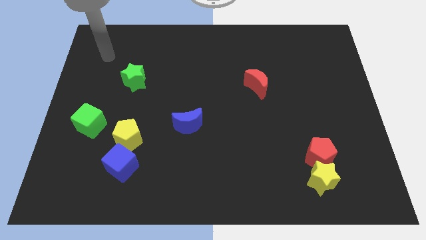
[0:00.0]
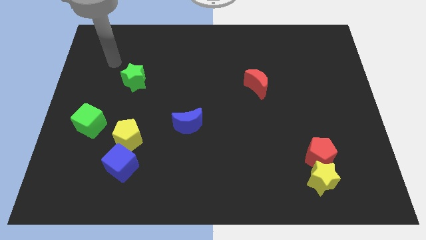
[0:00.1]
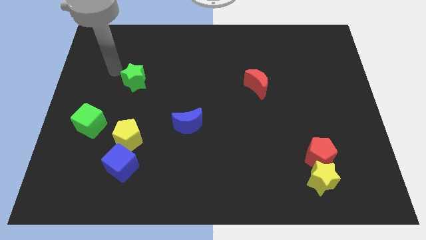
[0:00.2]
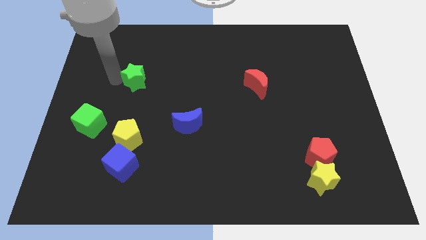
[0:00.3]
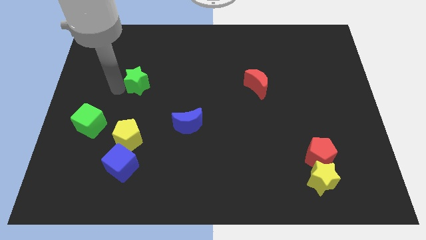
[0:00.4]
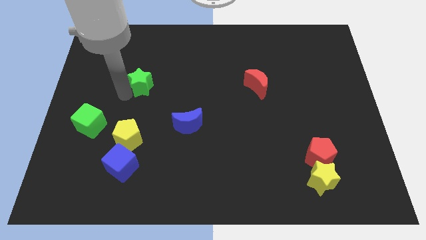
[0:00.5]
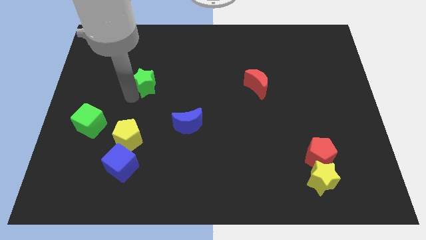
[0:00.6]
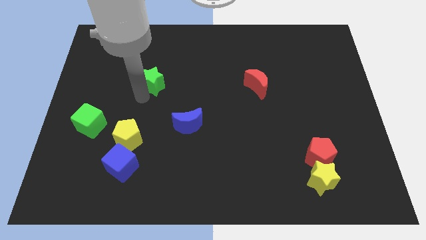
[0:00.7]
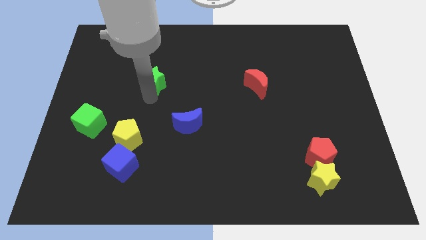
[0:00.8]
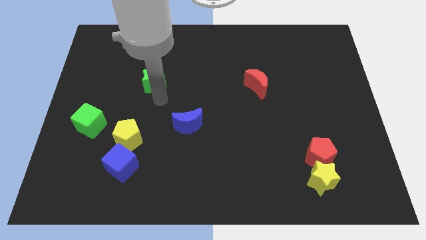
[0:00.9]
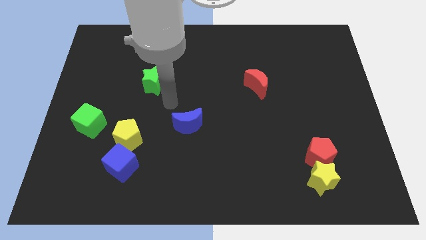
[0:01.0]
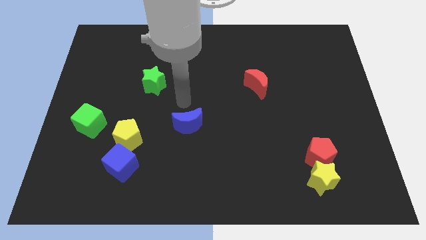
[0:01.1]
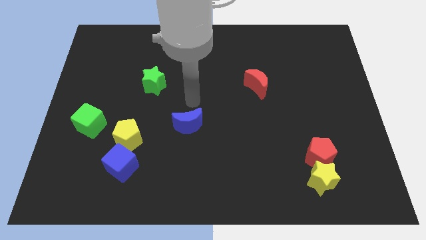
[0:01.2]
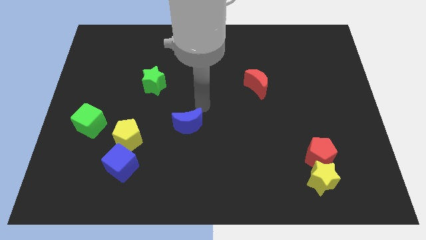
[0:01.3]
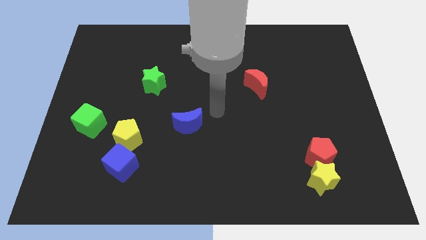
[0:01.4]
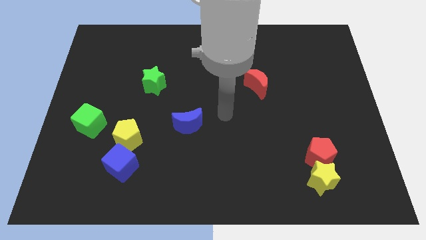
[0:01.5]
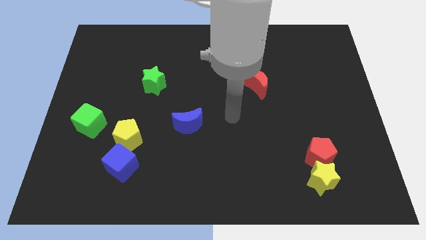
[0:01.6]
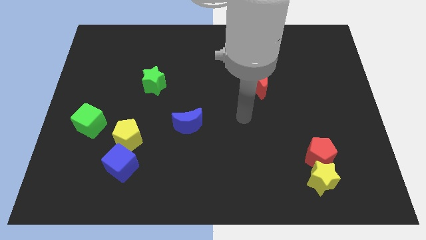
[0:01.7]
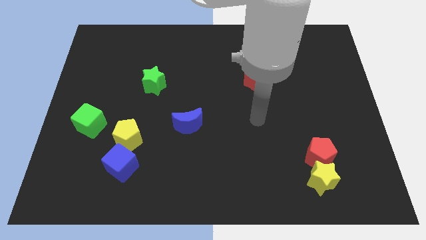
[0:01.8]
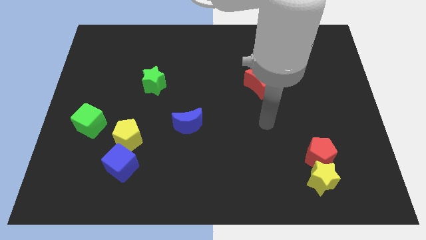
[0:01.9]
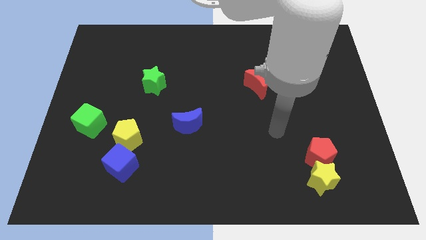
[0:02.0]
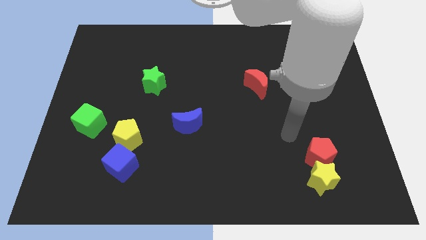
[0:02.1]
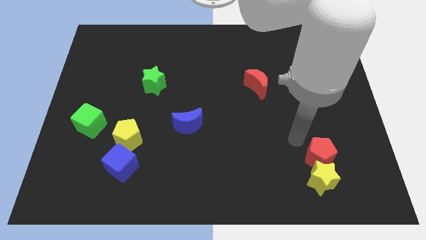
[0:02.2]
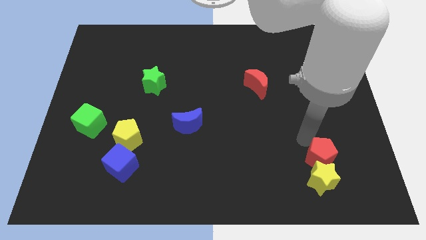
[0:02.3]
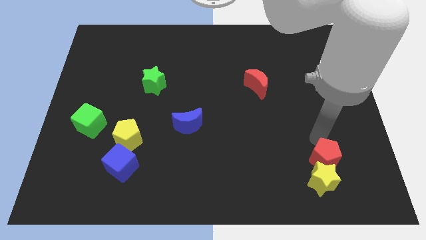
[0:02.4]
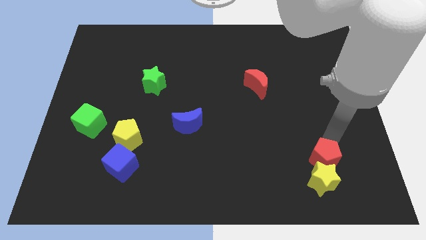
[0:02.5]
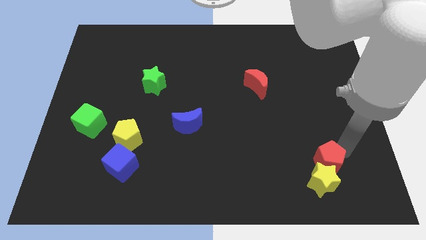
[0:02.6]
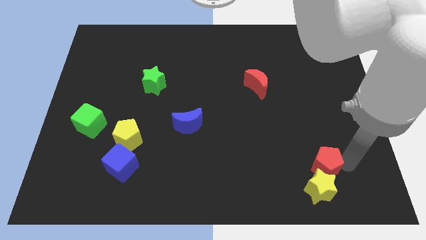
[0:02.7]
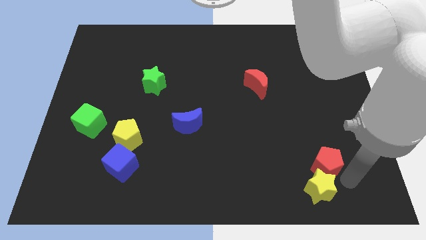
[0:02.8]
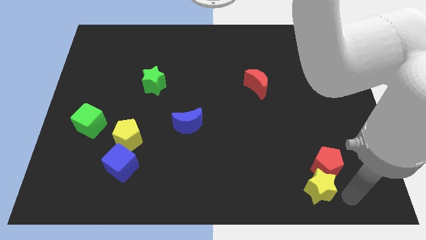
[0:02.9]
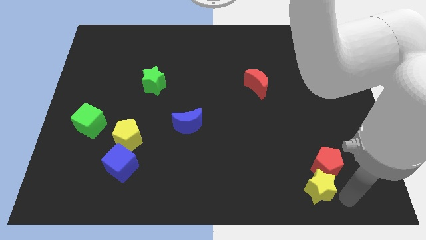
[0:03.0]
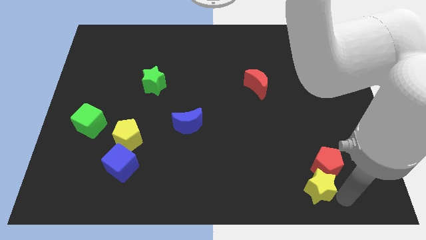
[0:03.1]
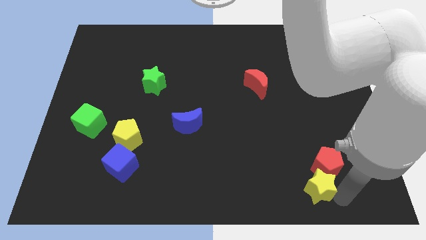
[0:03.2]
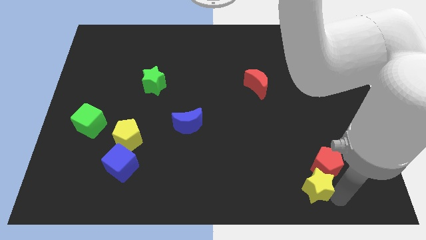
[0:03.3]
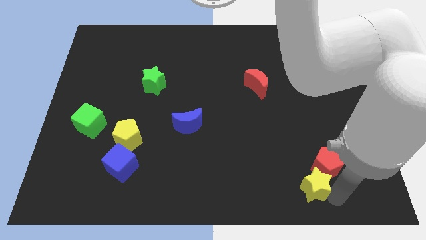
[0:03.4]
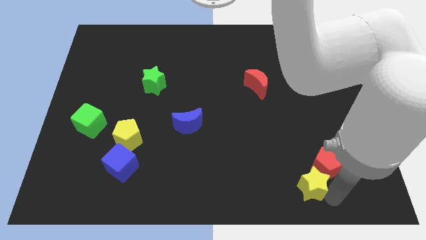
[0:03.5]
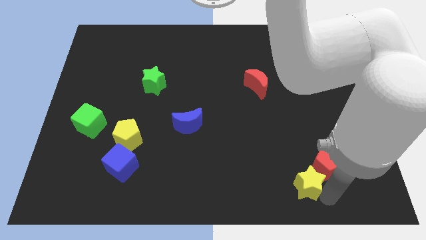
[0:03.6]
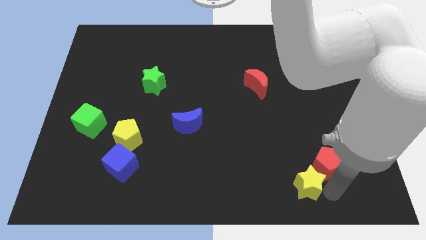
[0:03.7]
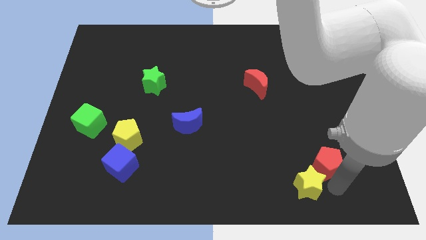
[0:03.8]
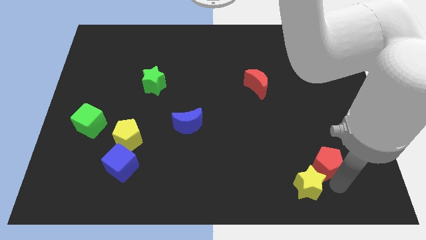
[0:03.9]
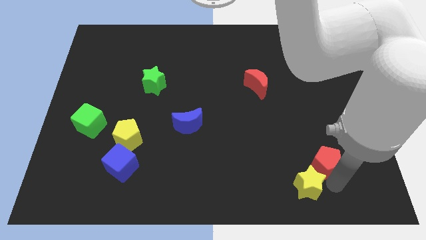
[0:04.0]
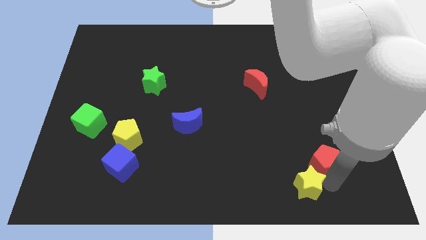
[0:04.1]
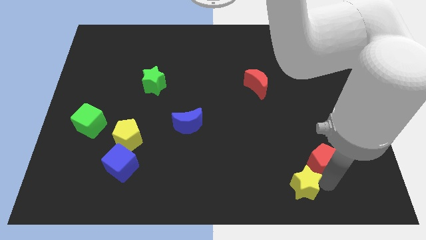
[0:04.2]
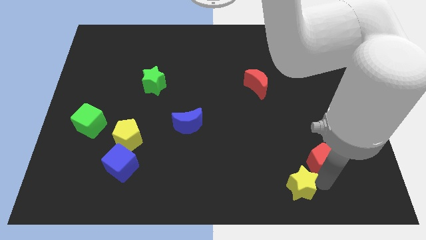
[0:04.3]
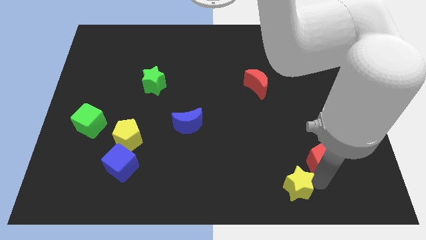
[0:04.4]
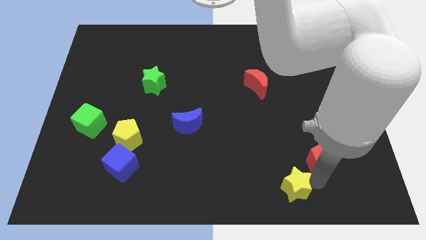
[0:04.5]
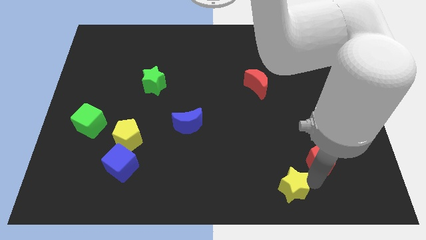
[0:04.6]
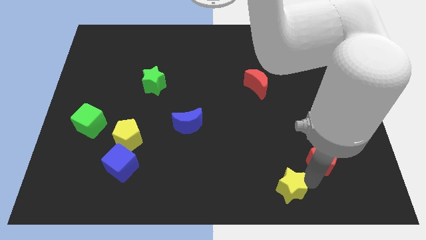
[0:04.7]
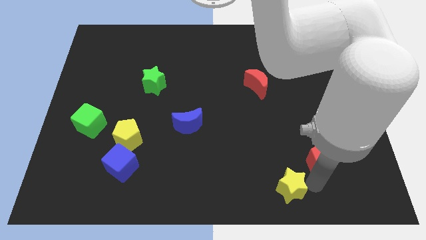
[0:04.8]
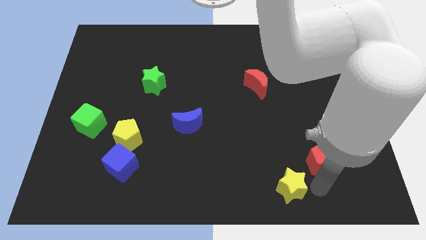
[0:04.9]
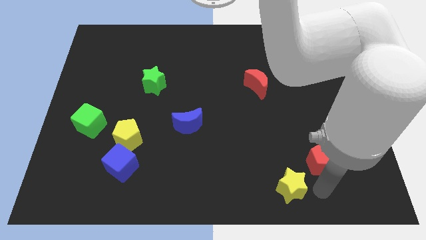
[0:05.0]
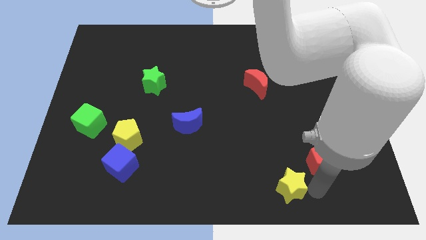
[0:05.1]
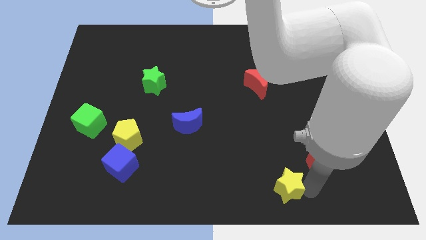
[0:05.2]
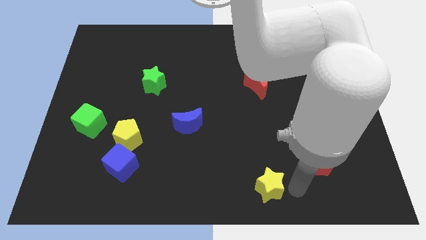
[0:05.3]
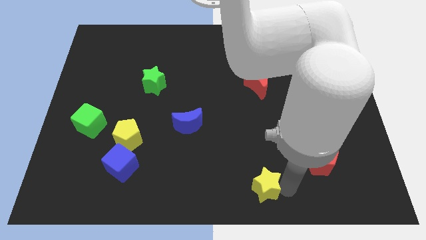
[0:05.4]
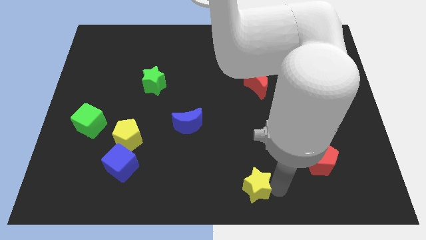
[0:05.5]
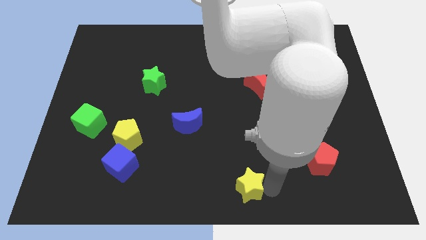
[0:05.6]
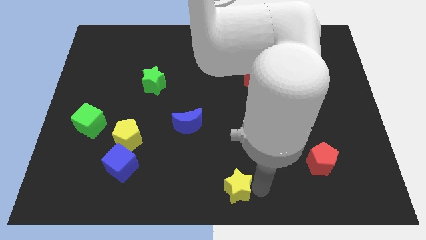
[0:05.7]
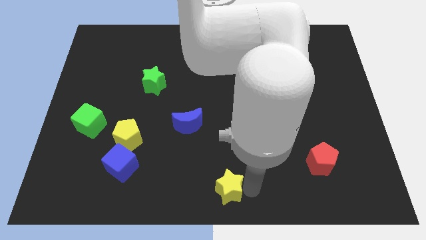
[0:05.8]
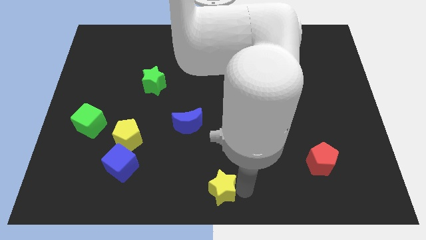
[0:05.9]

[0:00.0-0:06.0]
slide the yellow star to the left

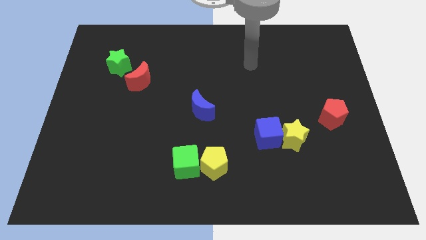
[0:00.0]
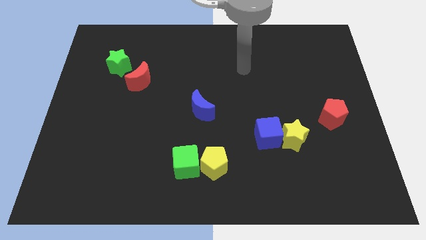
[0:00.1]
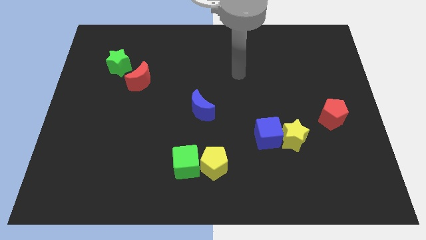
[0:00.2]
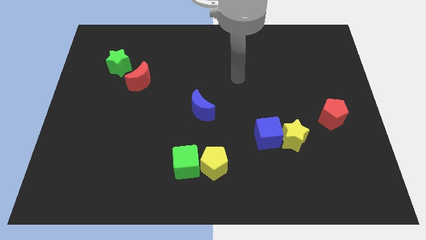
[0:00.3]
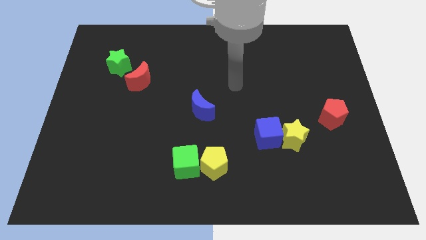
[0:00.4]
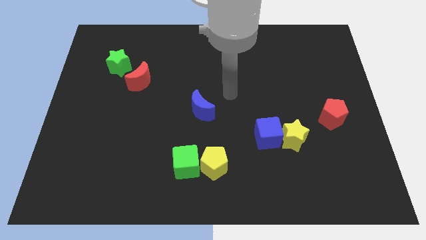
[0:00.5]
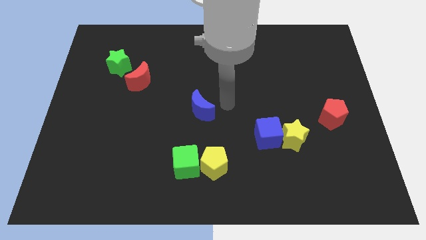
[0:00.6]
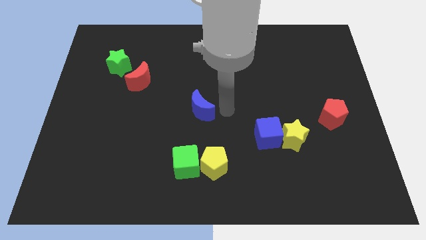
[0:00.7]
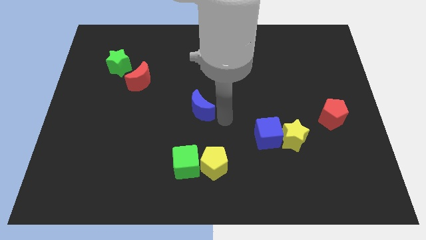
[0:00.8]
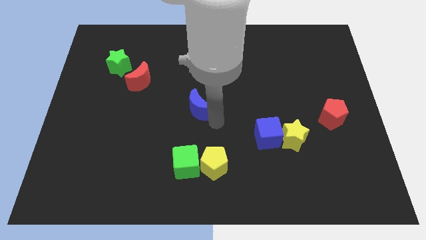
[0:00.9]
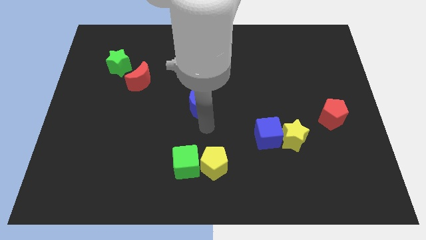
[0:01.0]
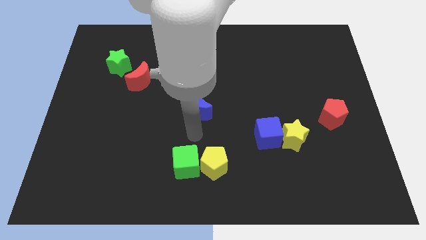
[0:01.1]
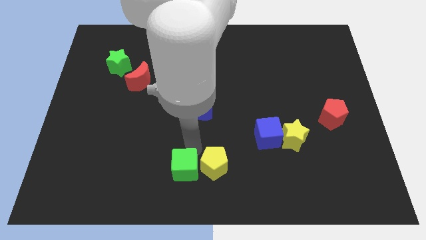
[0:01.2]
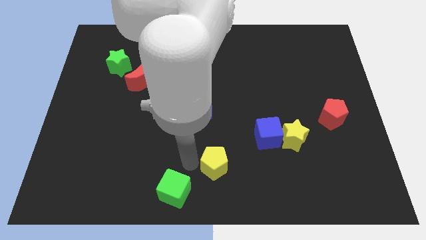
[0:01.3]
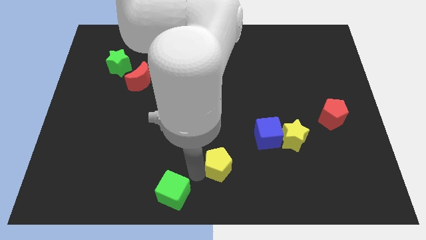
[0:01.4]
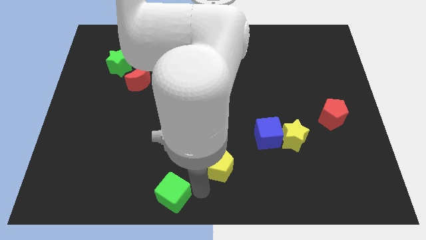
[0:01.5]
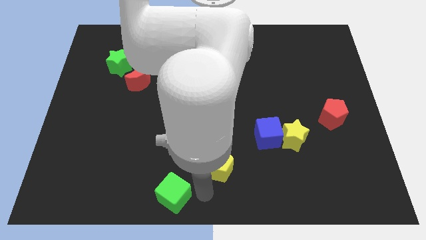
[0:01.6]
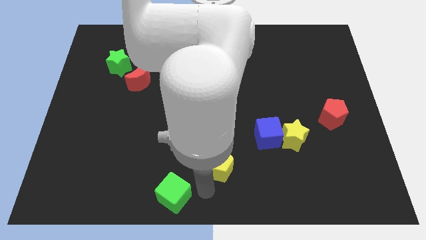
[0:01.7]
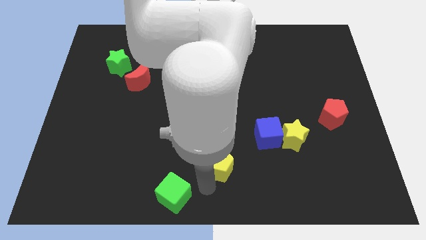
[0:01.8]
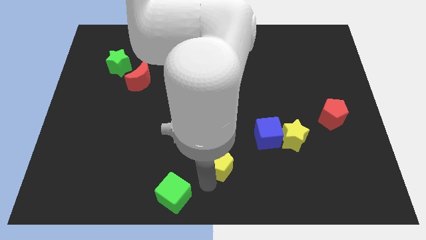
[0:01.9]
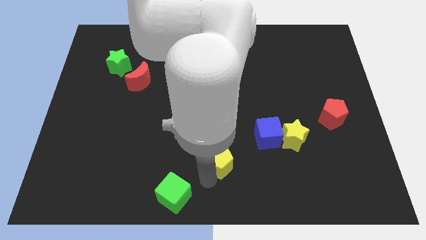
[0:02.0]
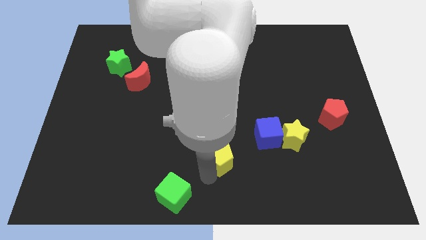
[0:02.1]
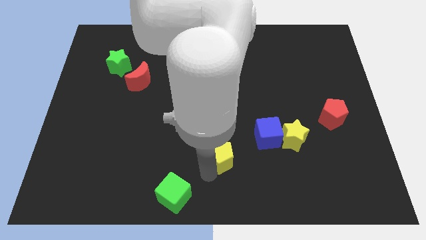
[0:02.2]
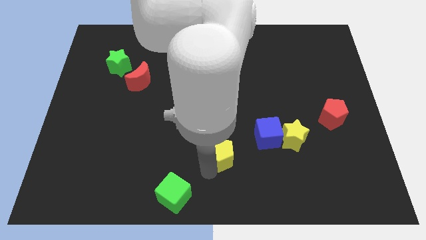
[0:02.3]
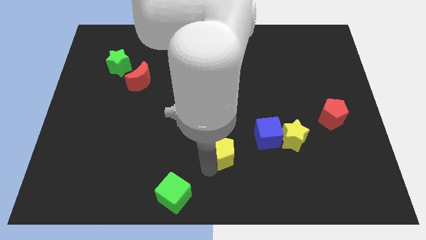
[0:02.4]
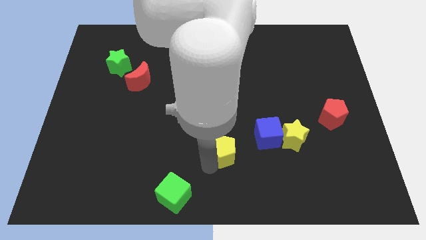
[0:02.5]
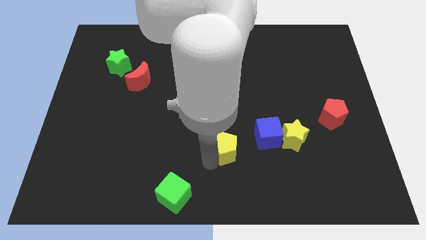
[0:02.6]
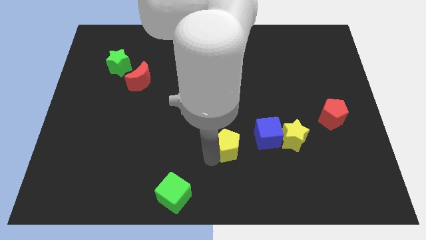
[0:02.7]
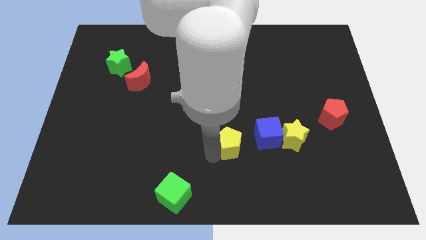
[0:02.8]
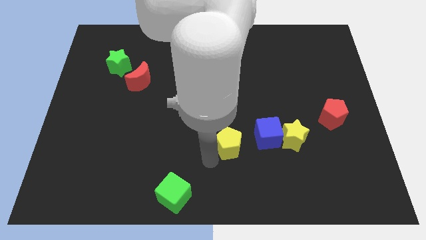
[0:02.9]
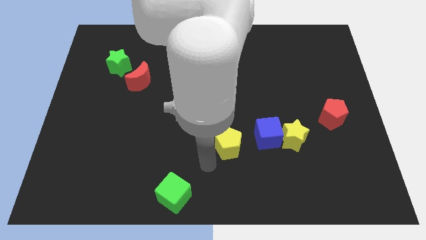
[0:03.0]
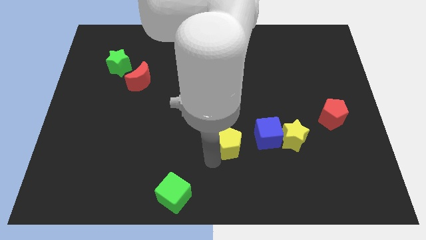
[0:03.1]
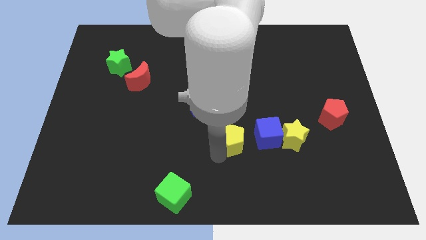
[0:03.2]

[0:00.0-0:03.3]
move the yellow pentagon up and right a bit
